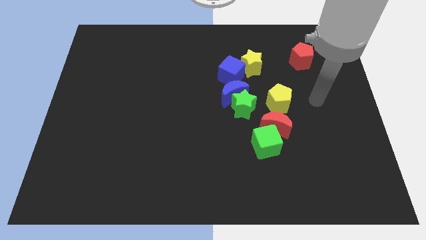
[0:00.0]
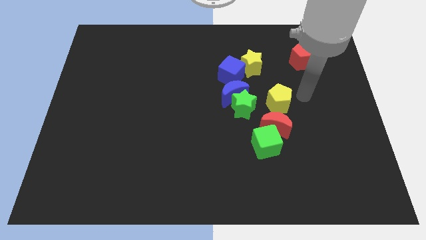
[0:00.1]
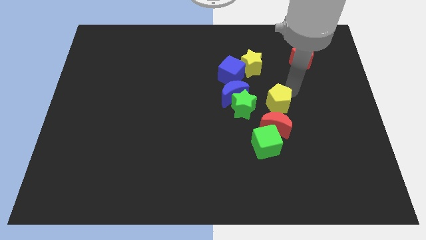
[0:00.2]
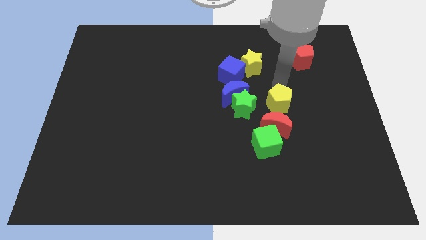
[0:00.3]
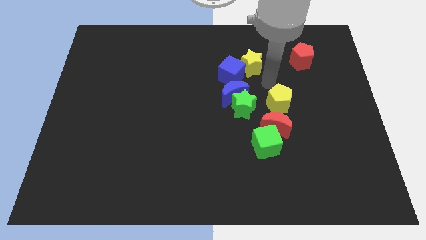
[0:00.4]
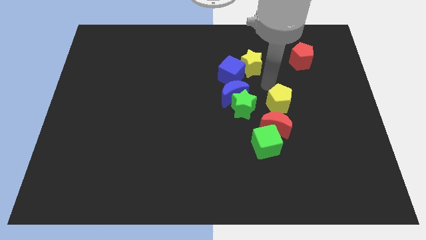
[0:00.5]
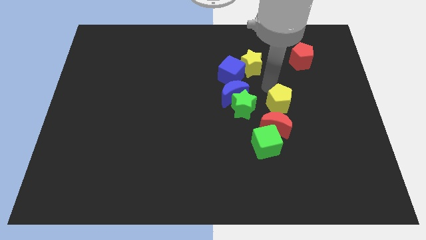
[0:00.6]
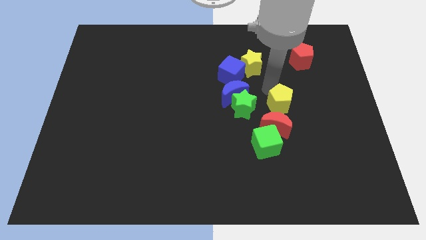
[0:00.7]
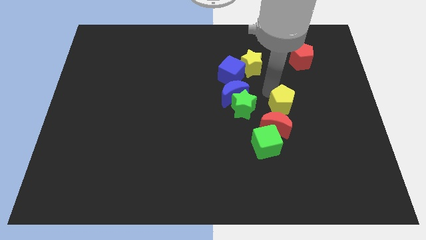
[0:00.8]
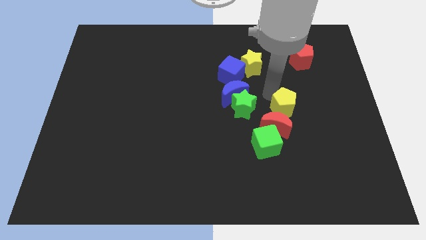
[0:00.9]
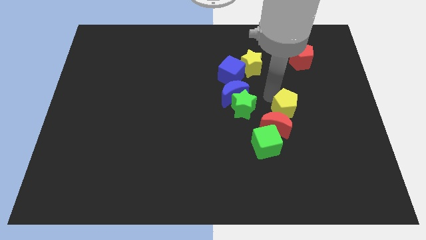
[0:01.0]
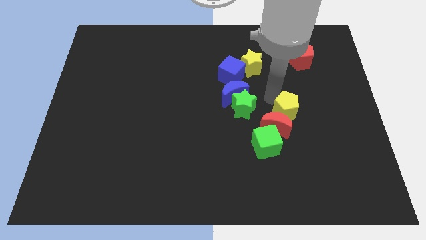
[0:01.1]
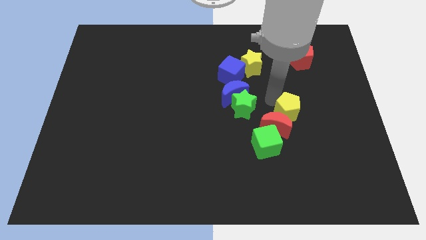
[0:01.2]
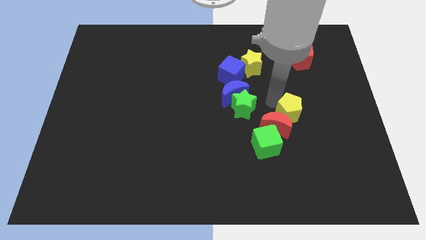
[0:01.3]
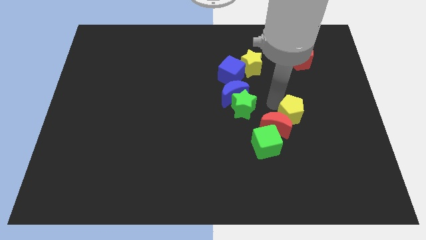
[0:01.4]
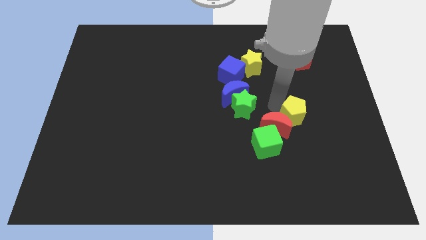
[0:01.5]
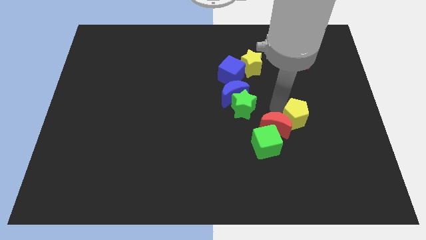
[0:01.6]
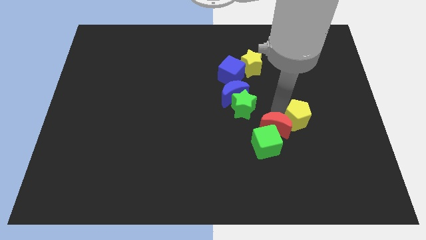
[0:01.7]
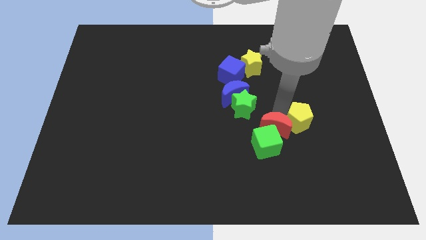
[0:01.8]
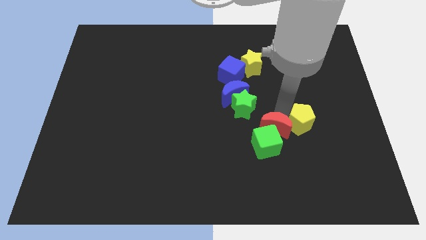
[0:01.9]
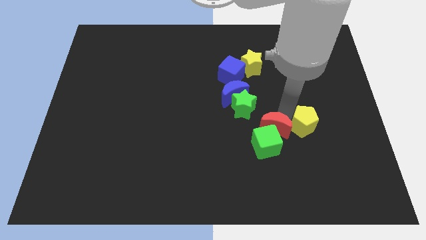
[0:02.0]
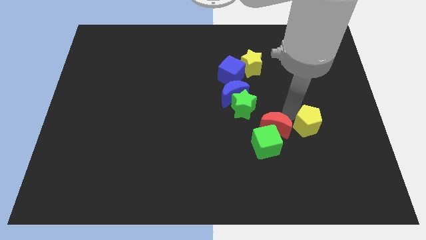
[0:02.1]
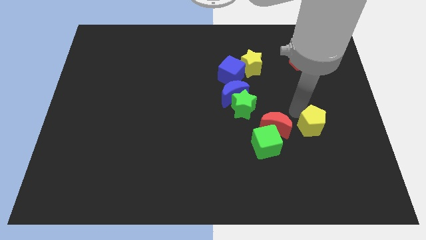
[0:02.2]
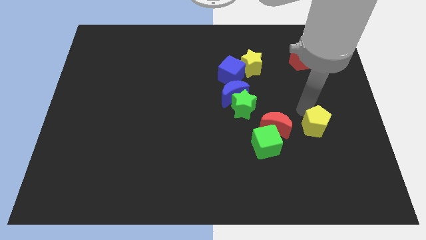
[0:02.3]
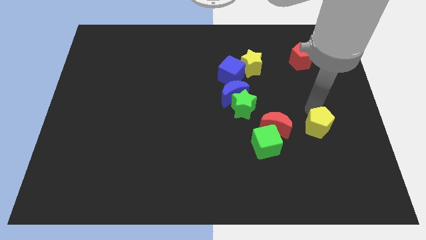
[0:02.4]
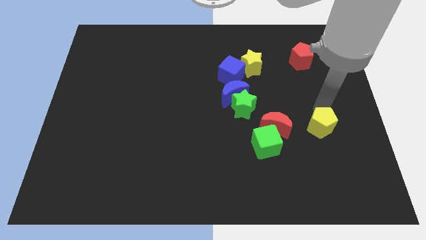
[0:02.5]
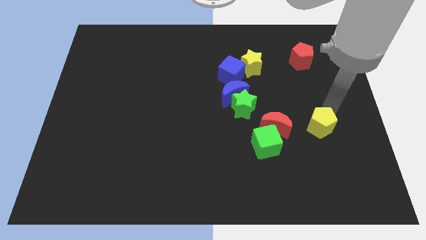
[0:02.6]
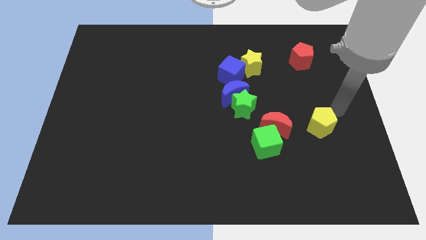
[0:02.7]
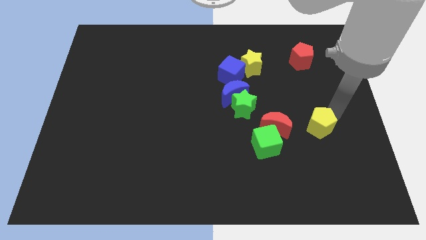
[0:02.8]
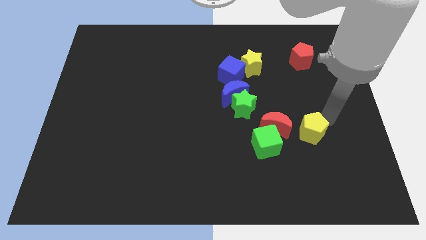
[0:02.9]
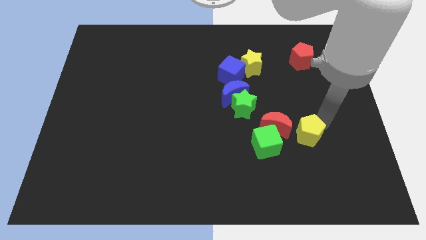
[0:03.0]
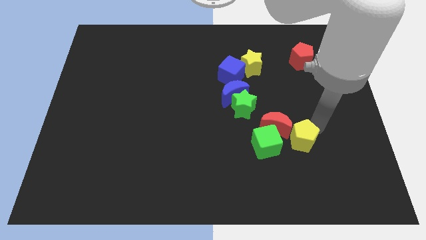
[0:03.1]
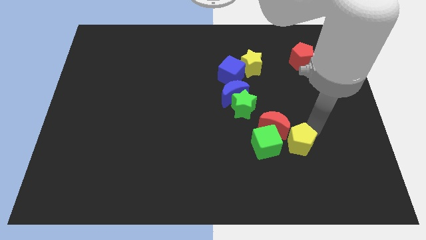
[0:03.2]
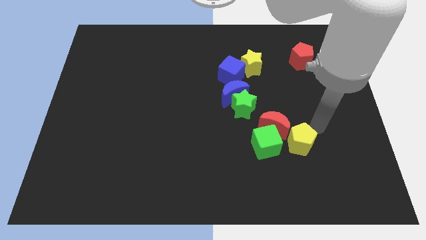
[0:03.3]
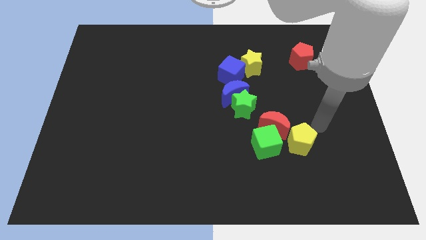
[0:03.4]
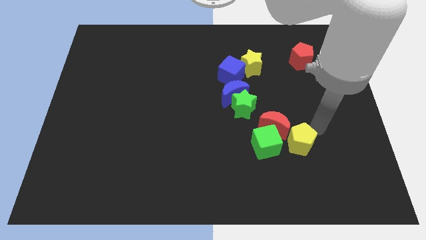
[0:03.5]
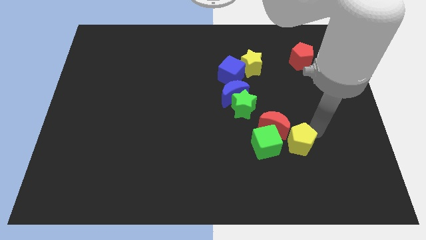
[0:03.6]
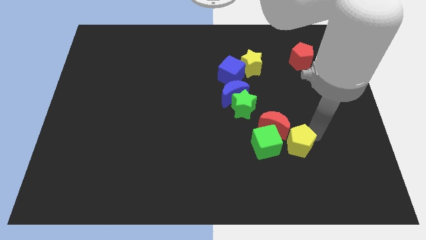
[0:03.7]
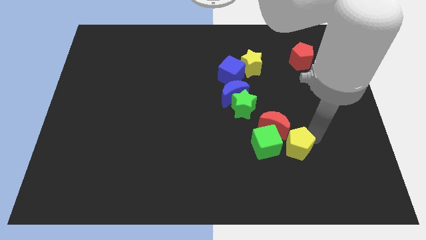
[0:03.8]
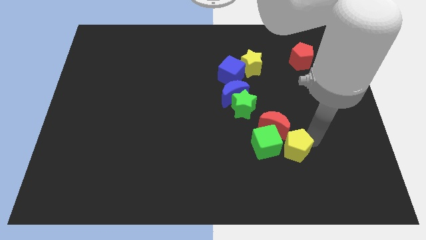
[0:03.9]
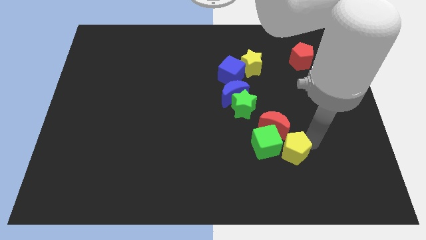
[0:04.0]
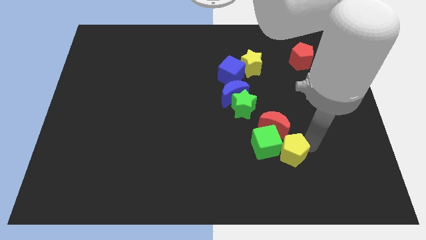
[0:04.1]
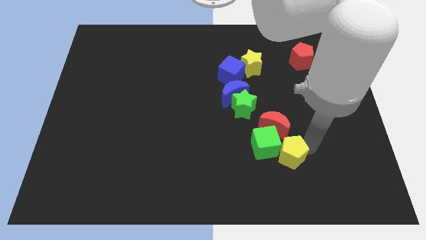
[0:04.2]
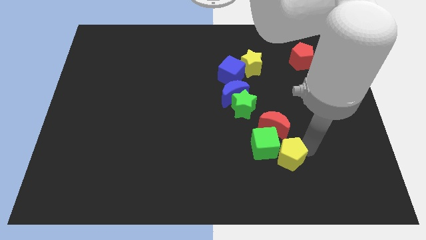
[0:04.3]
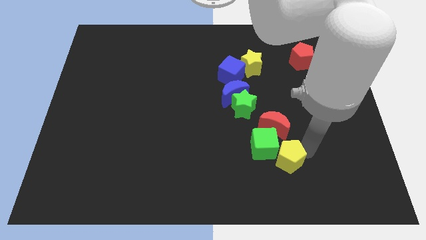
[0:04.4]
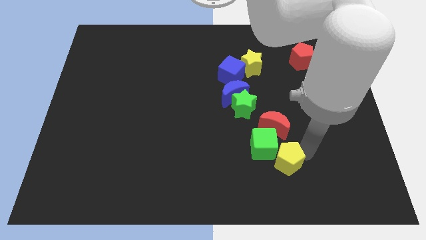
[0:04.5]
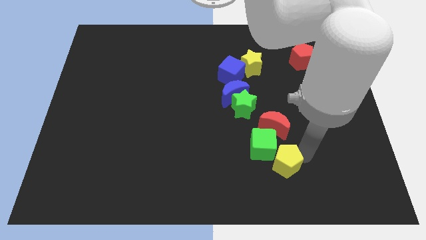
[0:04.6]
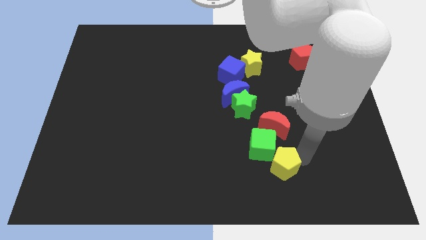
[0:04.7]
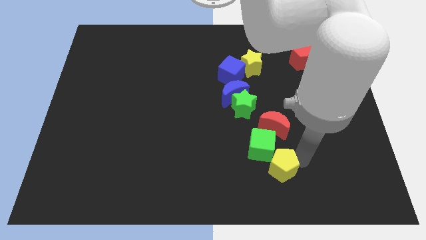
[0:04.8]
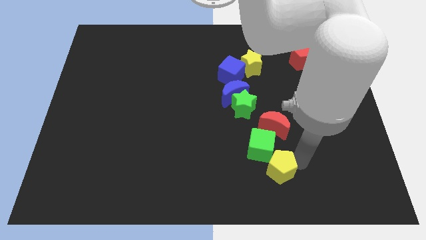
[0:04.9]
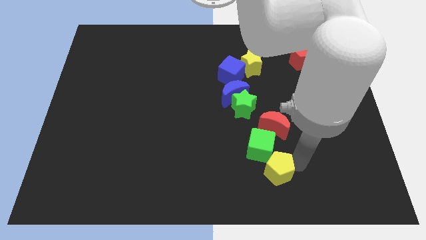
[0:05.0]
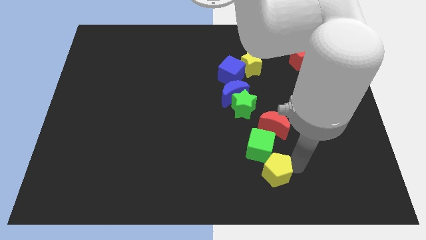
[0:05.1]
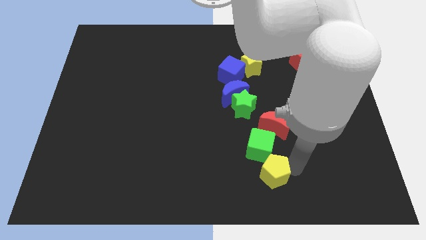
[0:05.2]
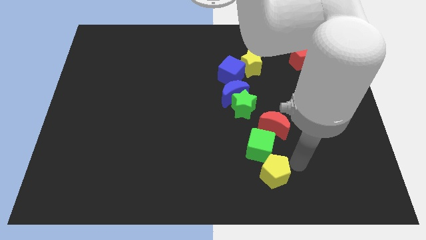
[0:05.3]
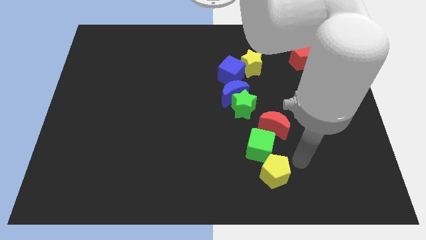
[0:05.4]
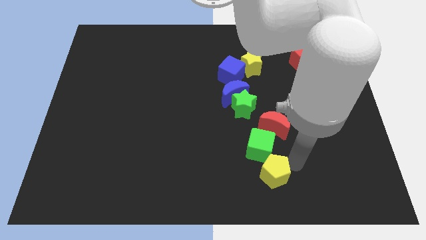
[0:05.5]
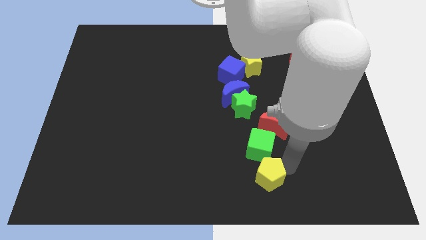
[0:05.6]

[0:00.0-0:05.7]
move the yellow pentagon to the bottom side

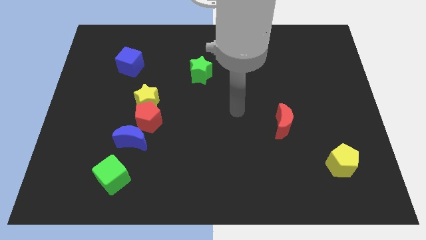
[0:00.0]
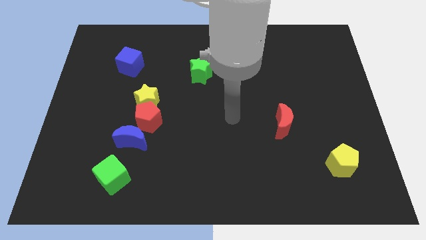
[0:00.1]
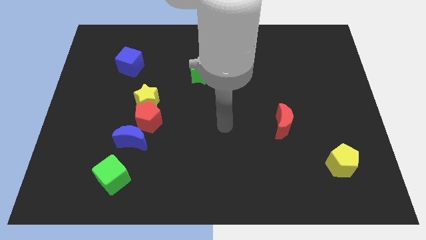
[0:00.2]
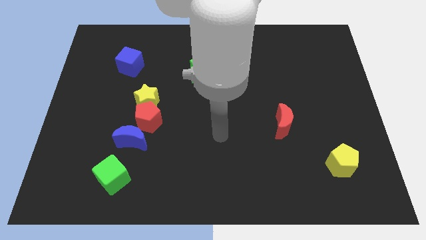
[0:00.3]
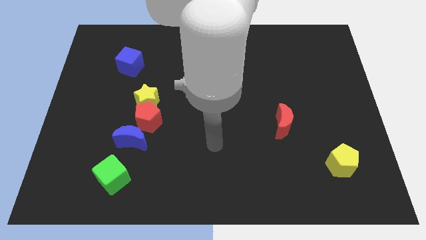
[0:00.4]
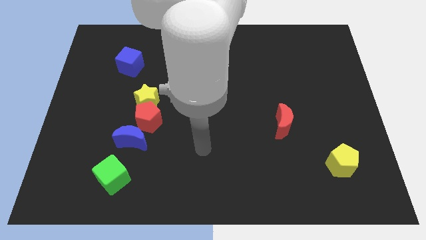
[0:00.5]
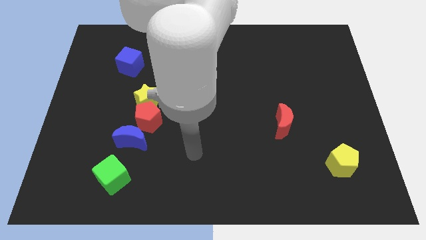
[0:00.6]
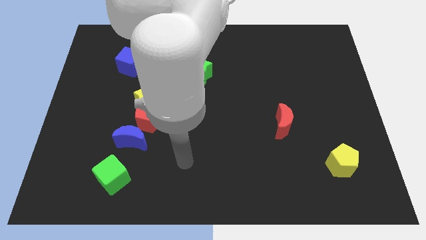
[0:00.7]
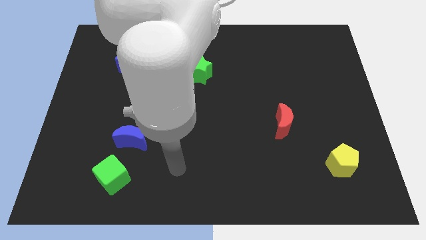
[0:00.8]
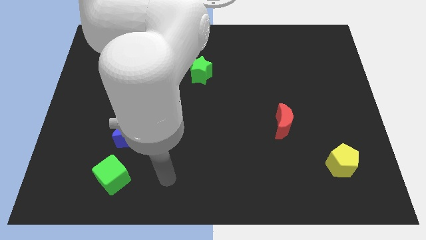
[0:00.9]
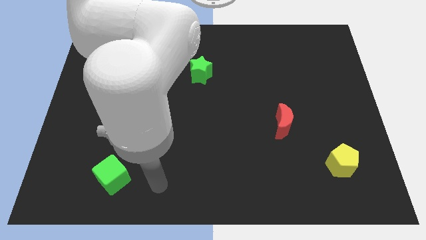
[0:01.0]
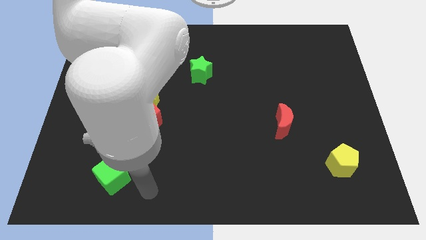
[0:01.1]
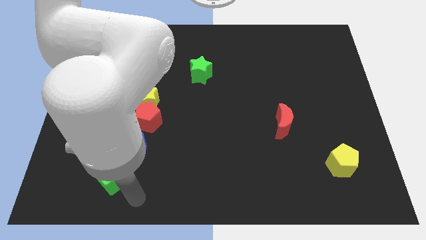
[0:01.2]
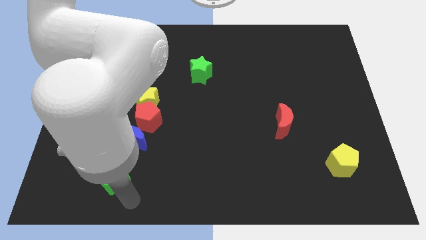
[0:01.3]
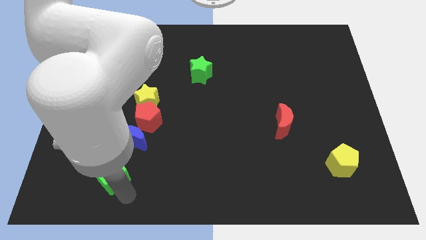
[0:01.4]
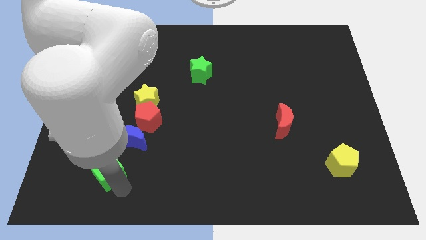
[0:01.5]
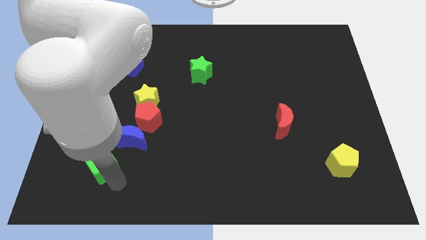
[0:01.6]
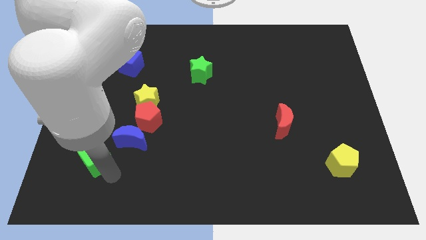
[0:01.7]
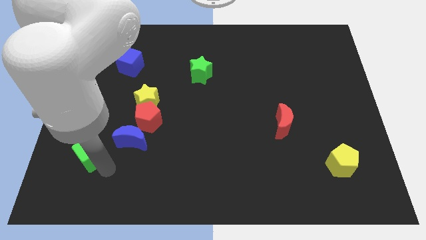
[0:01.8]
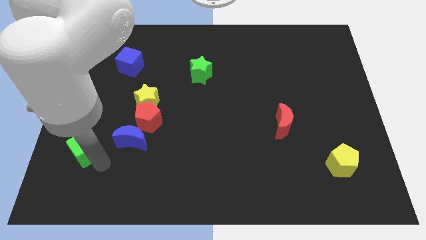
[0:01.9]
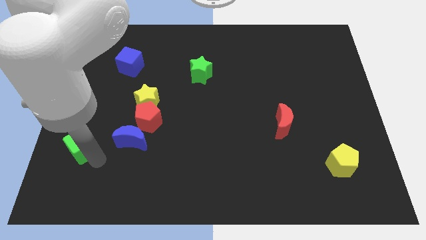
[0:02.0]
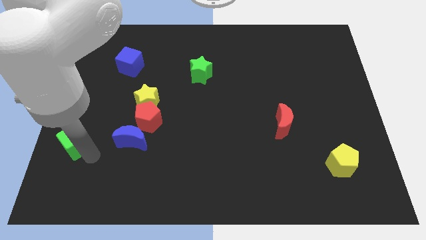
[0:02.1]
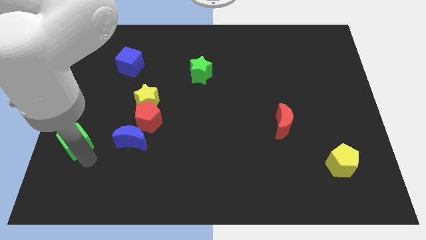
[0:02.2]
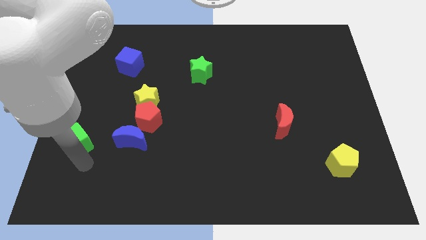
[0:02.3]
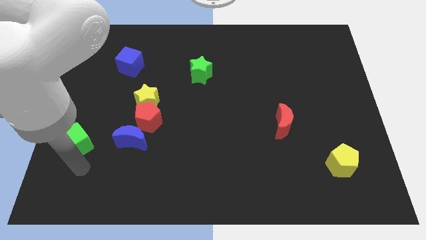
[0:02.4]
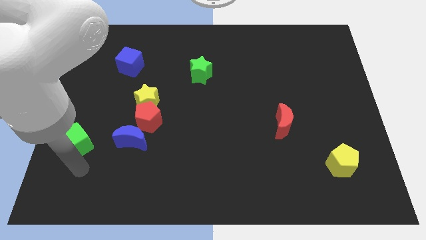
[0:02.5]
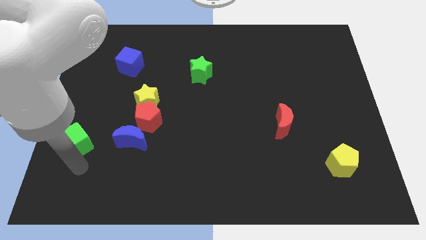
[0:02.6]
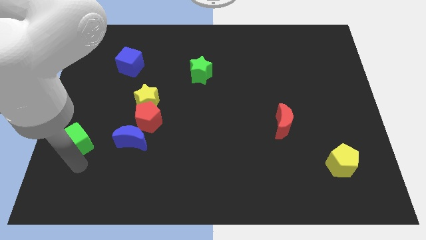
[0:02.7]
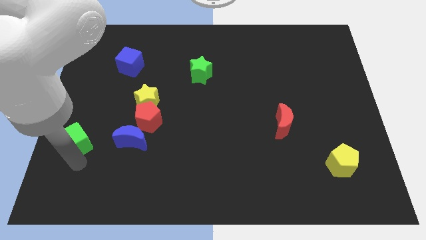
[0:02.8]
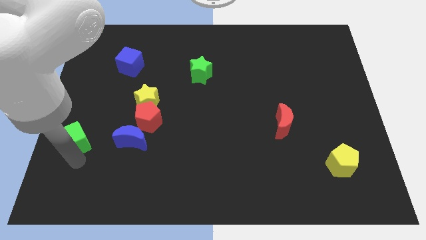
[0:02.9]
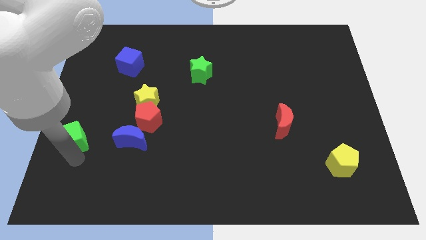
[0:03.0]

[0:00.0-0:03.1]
put the green cube to the center left
